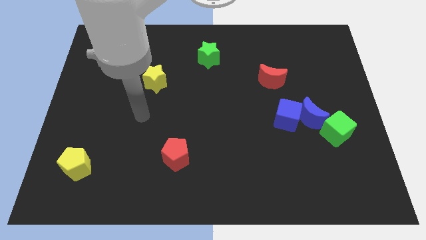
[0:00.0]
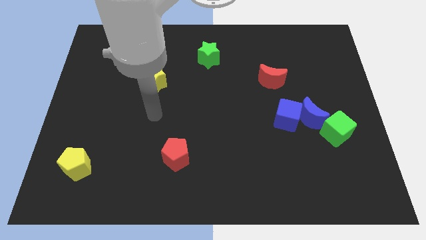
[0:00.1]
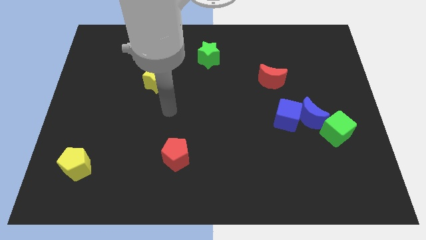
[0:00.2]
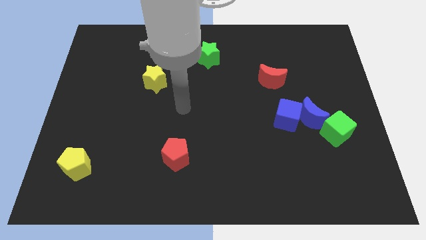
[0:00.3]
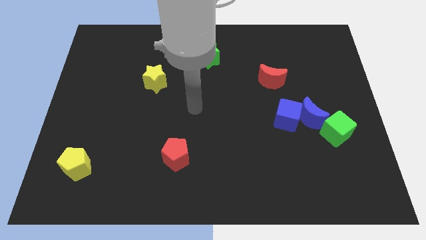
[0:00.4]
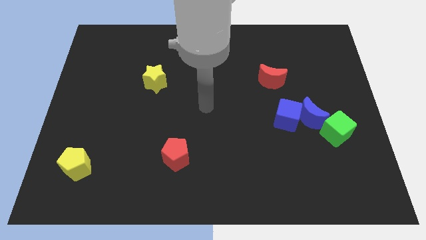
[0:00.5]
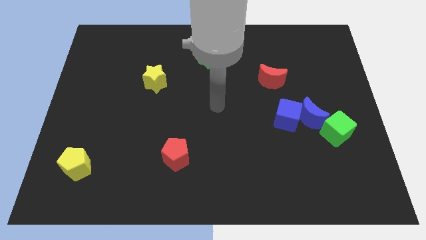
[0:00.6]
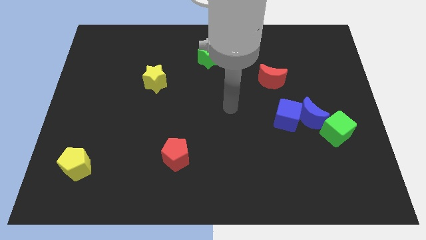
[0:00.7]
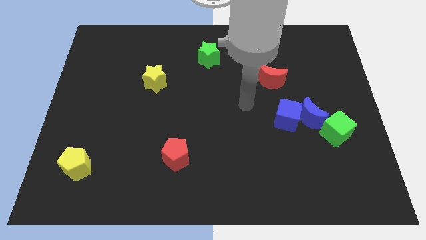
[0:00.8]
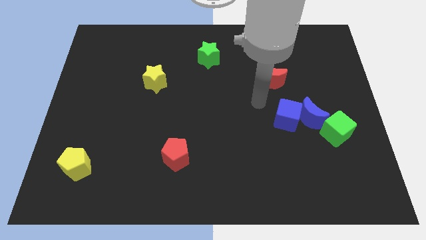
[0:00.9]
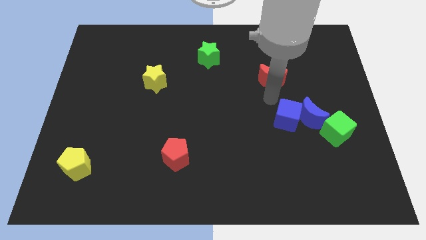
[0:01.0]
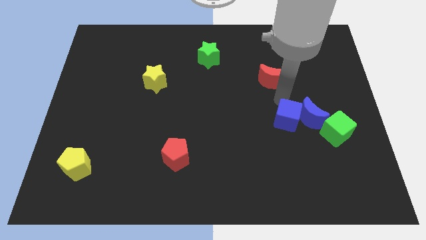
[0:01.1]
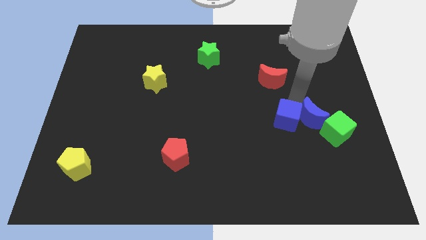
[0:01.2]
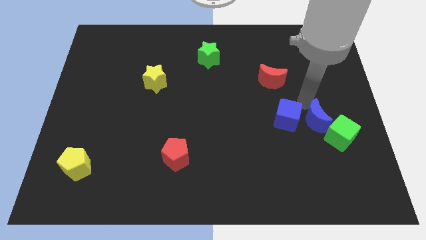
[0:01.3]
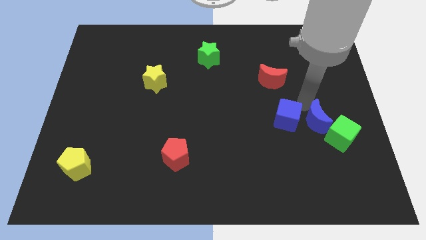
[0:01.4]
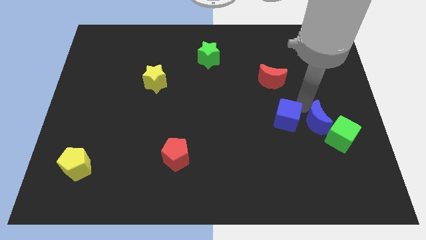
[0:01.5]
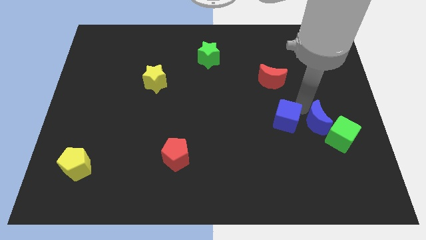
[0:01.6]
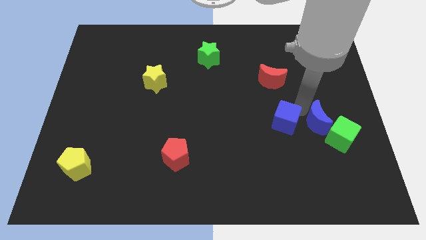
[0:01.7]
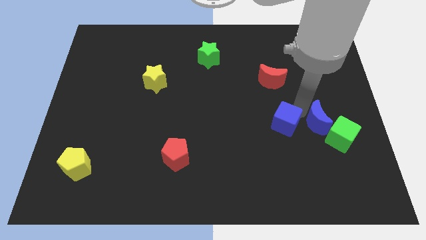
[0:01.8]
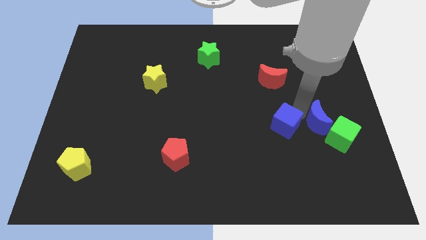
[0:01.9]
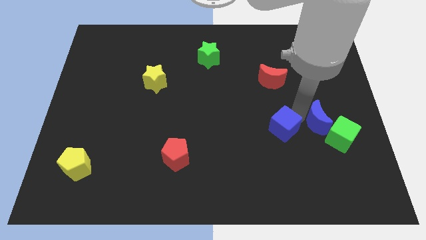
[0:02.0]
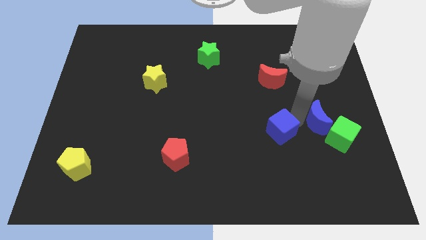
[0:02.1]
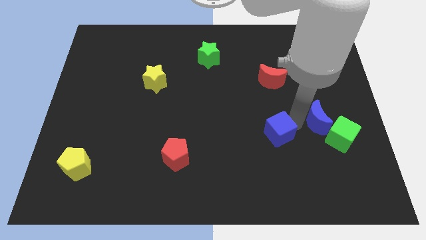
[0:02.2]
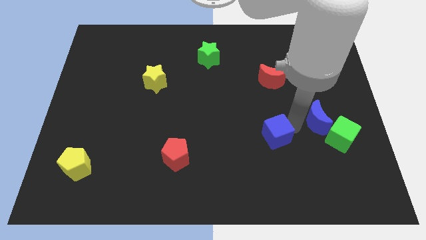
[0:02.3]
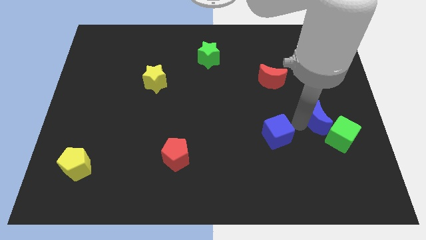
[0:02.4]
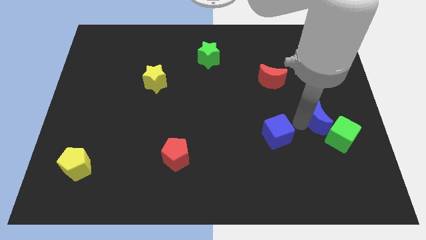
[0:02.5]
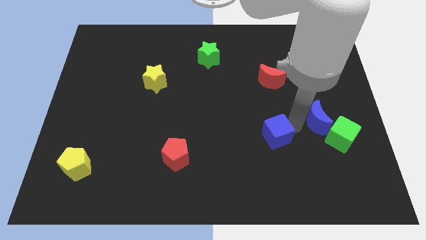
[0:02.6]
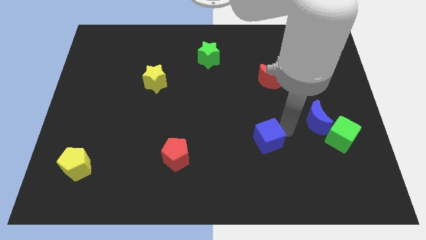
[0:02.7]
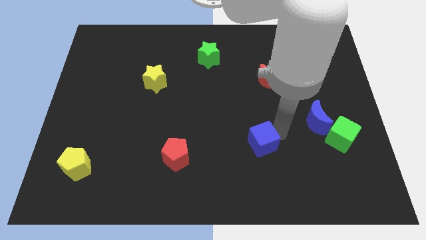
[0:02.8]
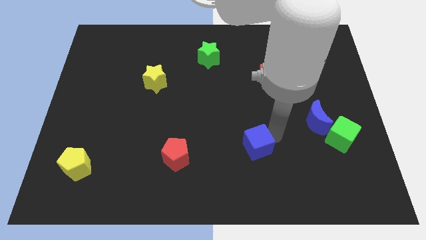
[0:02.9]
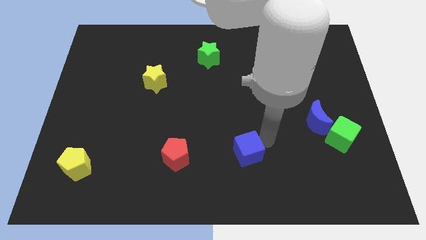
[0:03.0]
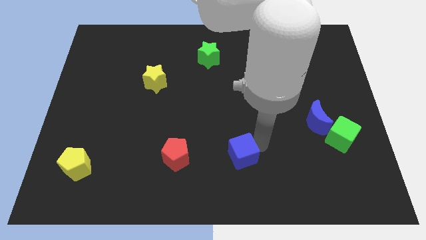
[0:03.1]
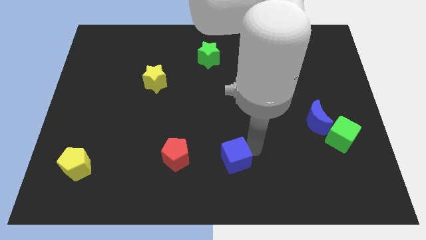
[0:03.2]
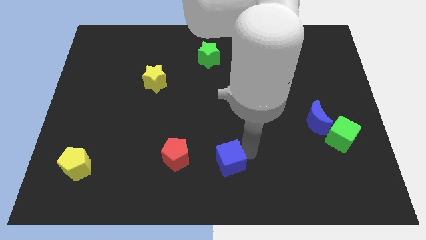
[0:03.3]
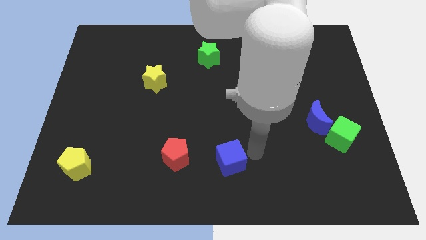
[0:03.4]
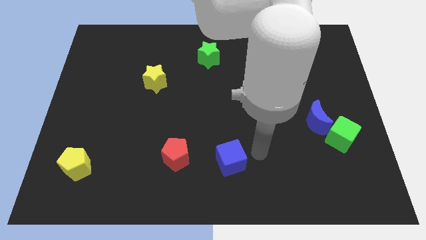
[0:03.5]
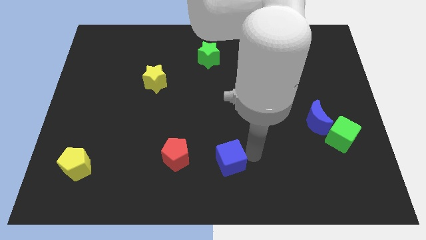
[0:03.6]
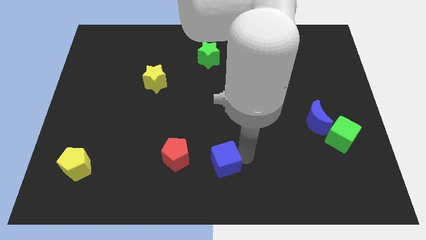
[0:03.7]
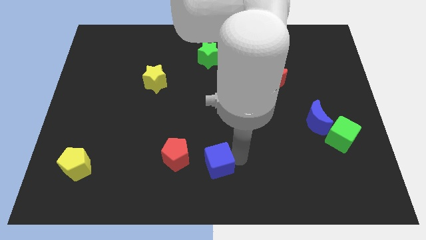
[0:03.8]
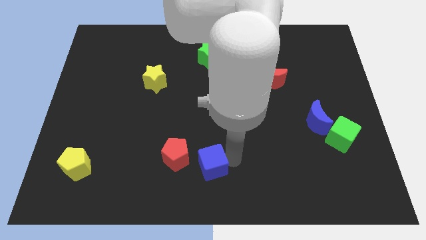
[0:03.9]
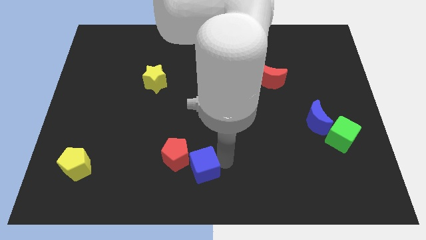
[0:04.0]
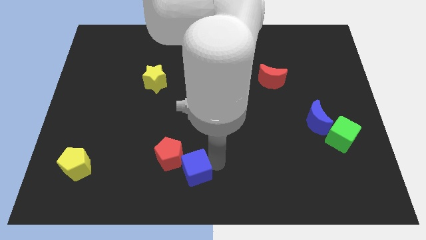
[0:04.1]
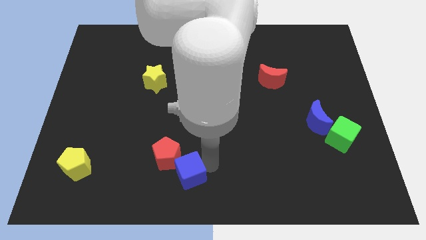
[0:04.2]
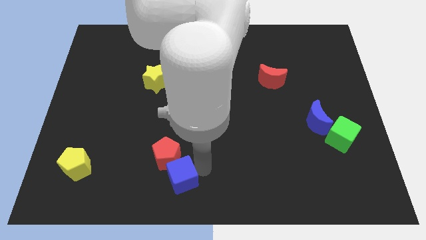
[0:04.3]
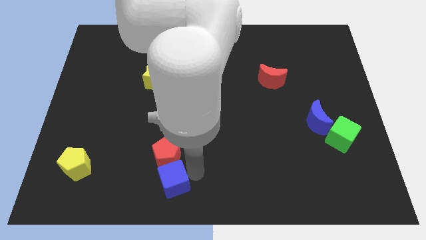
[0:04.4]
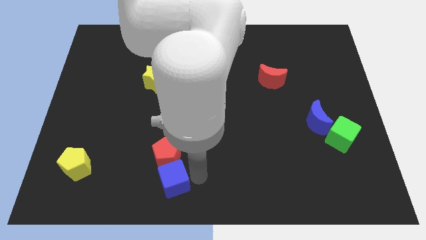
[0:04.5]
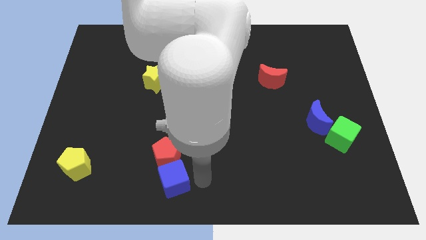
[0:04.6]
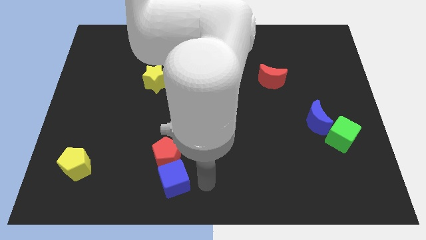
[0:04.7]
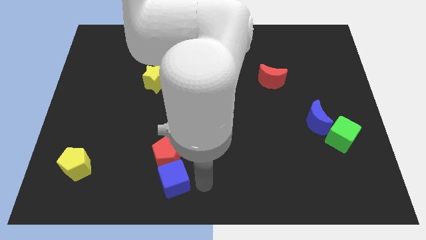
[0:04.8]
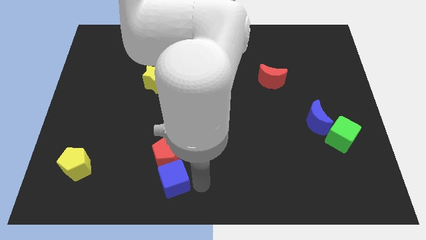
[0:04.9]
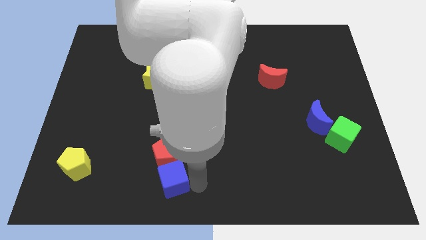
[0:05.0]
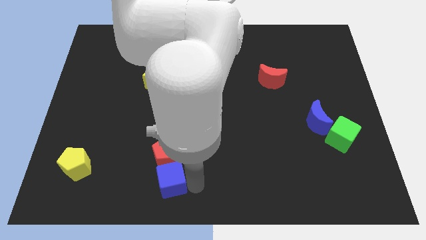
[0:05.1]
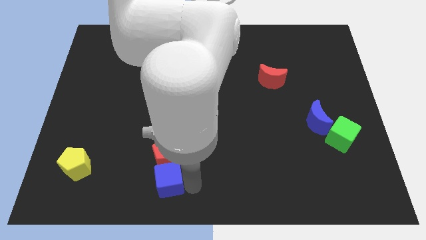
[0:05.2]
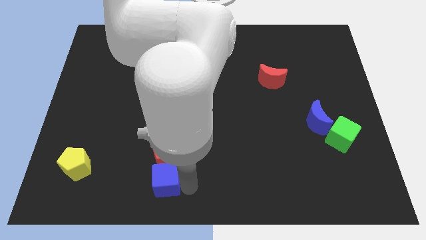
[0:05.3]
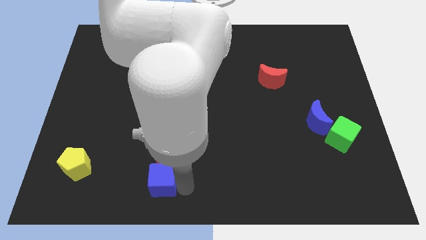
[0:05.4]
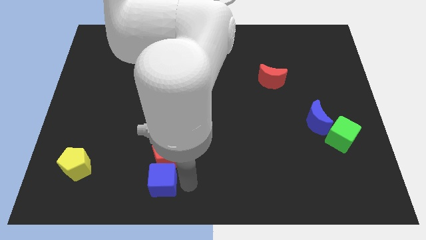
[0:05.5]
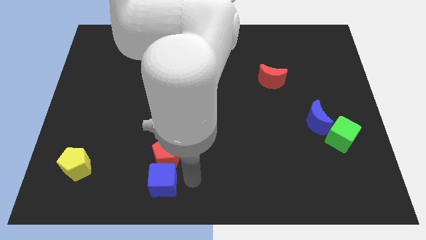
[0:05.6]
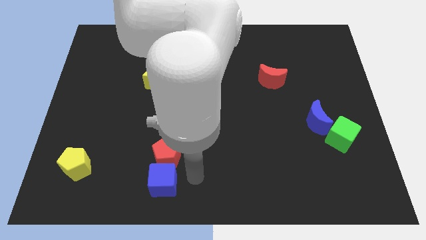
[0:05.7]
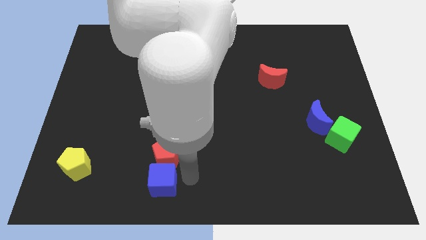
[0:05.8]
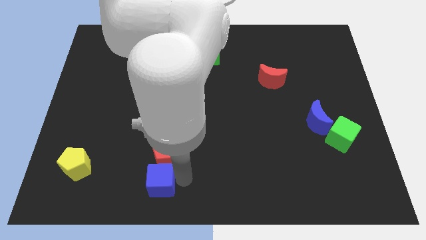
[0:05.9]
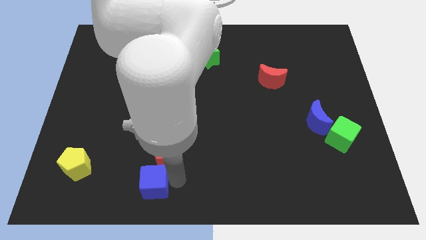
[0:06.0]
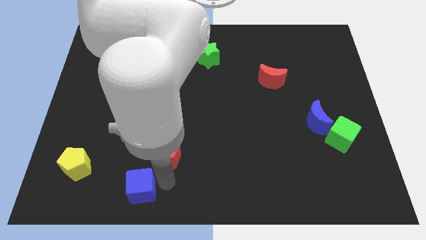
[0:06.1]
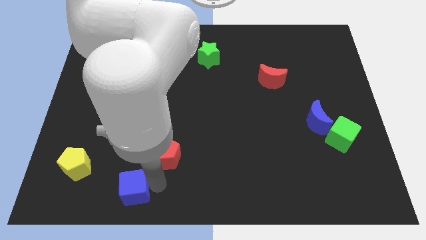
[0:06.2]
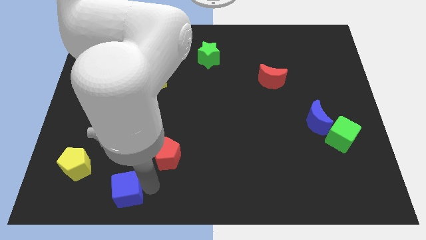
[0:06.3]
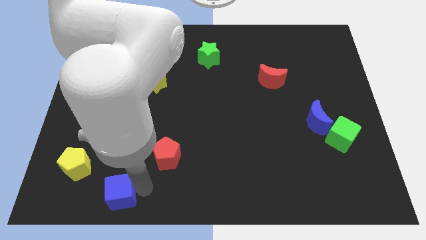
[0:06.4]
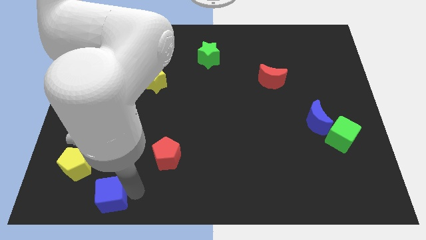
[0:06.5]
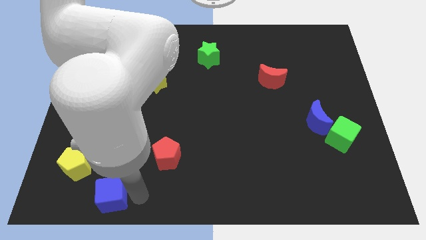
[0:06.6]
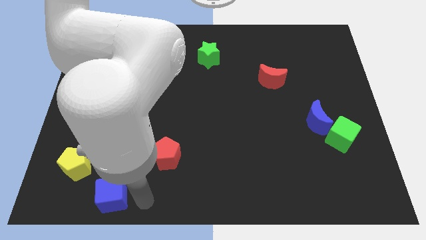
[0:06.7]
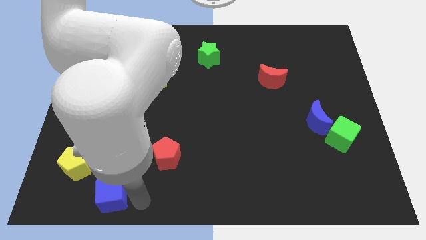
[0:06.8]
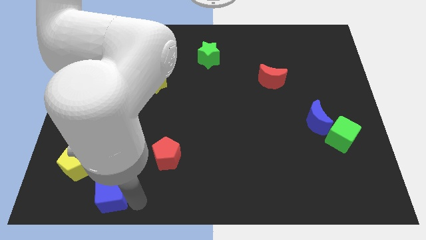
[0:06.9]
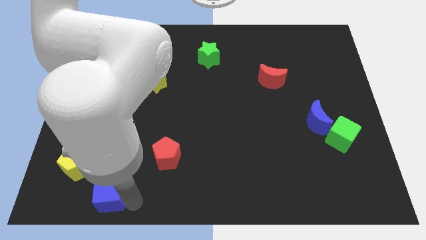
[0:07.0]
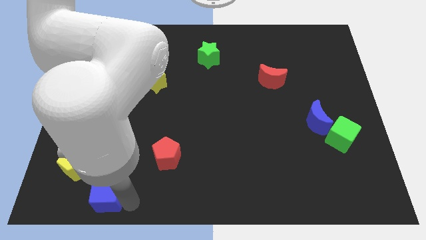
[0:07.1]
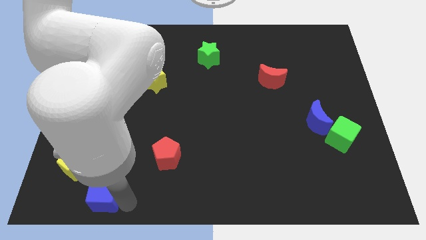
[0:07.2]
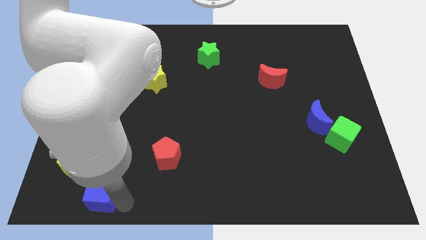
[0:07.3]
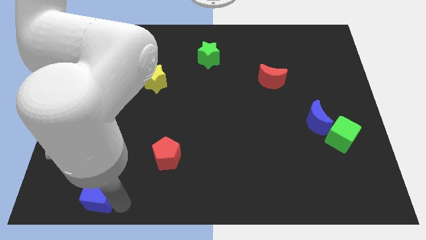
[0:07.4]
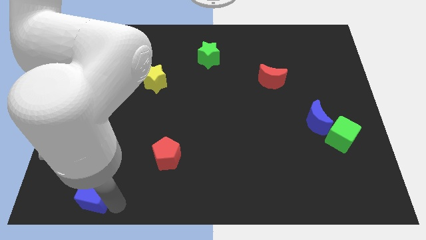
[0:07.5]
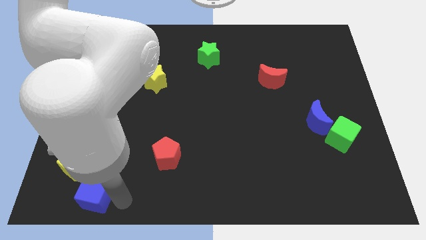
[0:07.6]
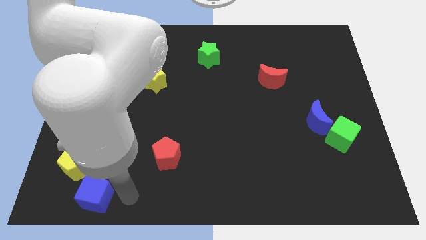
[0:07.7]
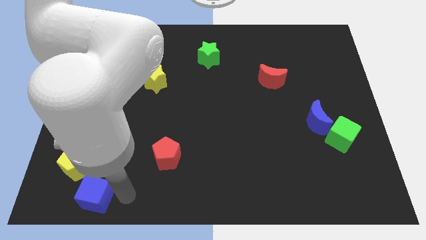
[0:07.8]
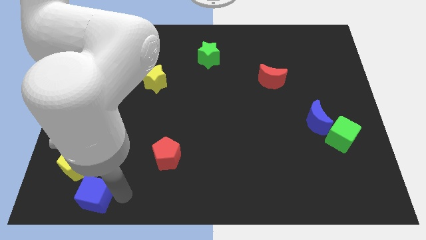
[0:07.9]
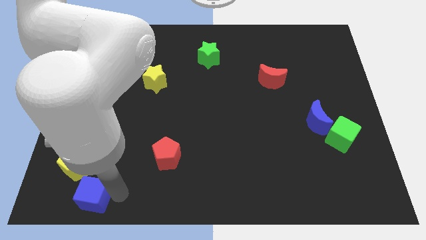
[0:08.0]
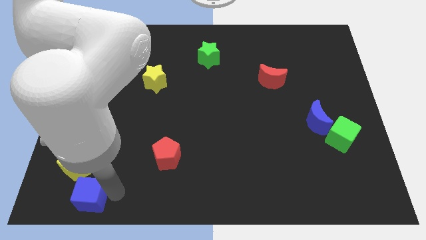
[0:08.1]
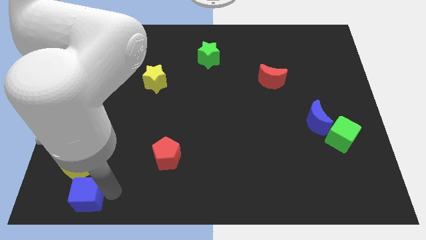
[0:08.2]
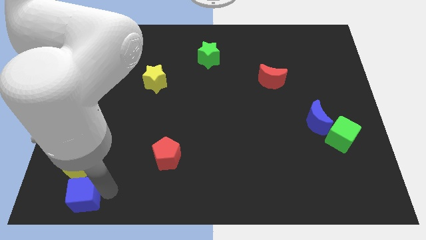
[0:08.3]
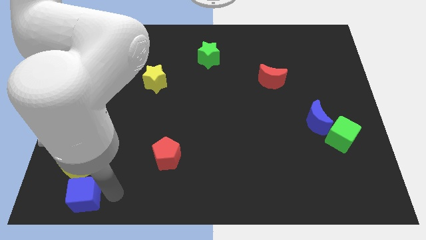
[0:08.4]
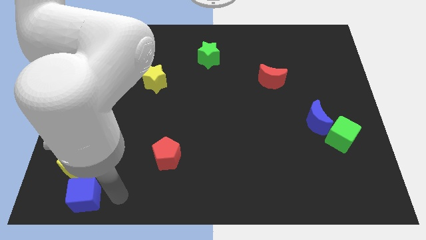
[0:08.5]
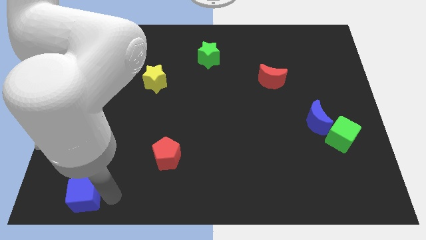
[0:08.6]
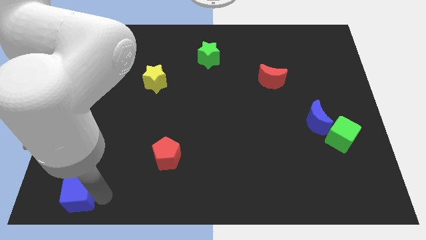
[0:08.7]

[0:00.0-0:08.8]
push the blue cube to the lower left corner
